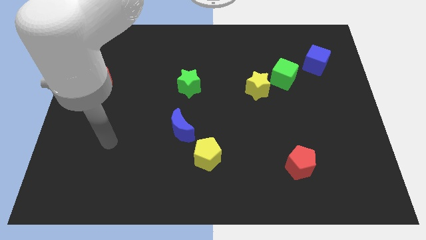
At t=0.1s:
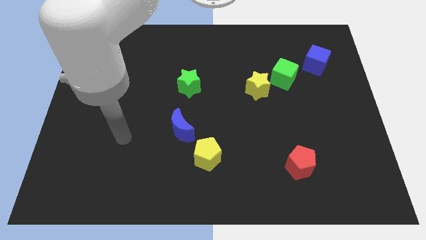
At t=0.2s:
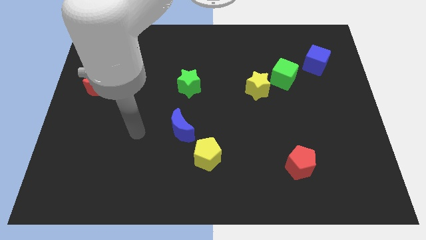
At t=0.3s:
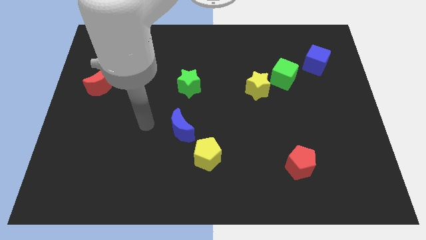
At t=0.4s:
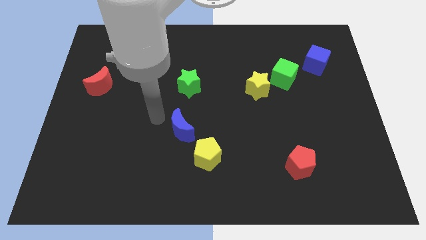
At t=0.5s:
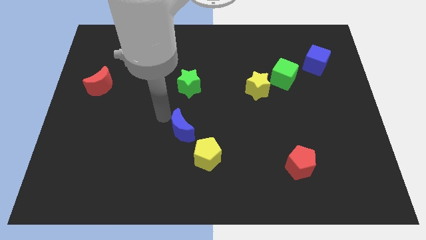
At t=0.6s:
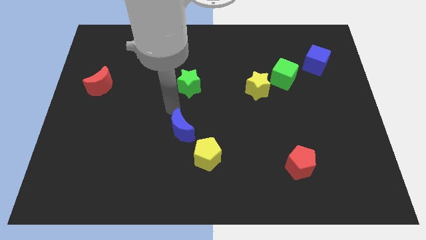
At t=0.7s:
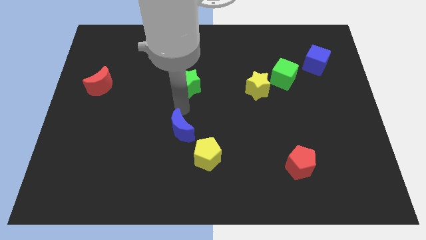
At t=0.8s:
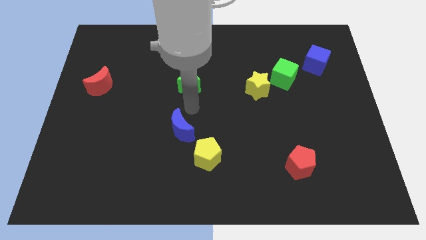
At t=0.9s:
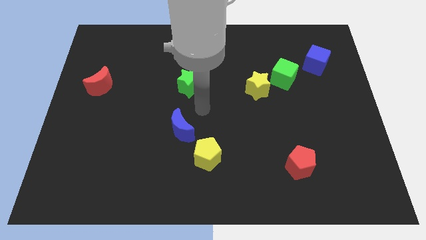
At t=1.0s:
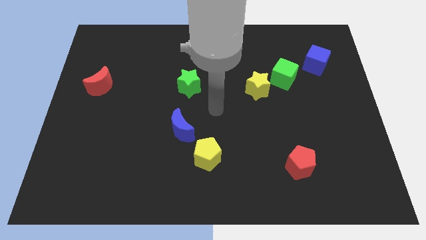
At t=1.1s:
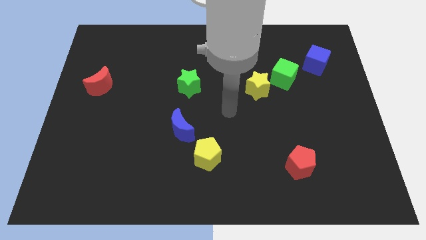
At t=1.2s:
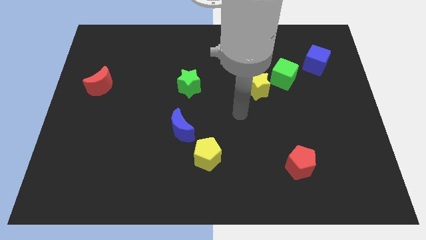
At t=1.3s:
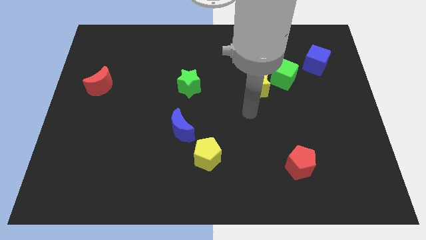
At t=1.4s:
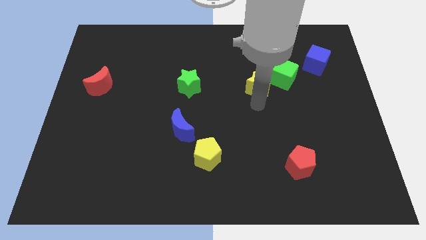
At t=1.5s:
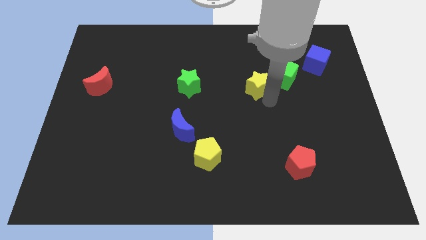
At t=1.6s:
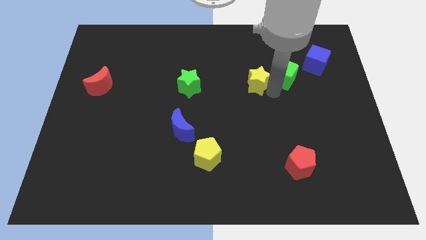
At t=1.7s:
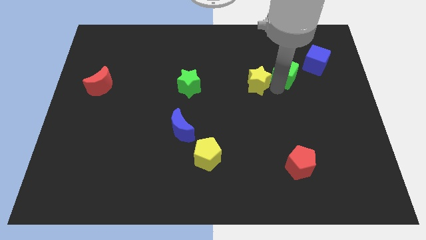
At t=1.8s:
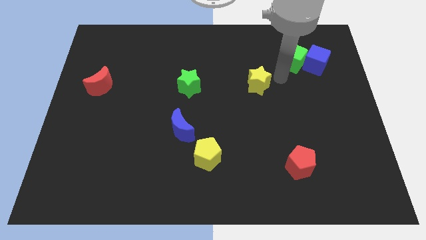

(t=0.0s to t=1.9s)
separate the yellow star from the green cube

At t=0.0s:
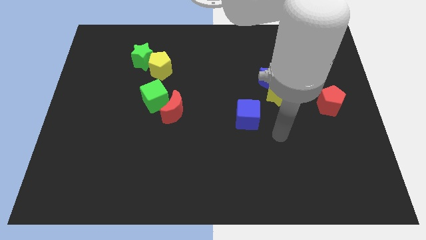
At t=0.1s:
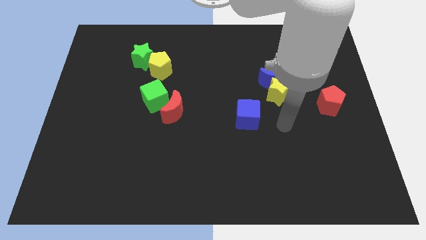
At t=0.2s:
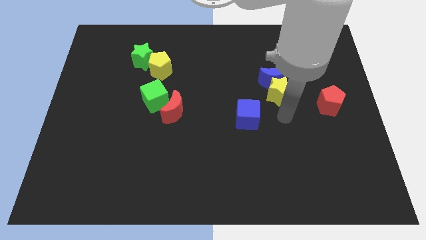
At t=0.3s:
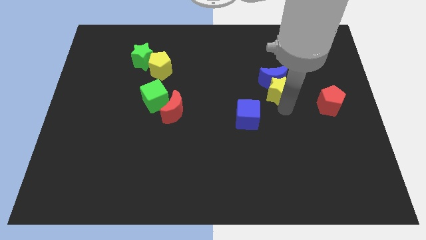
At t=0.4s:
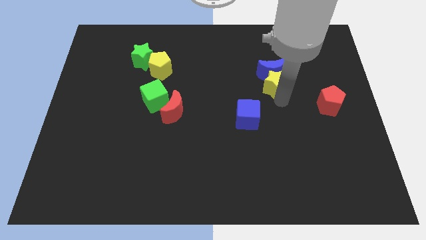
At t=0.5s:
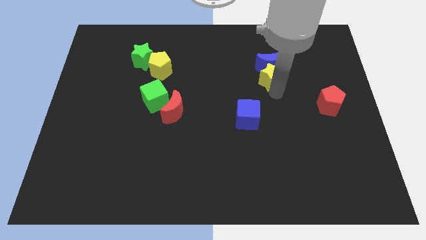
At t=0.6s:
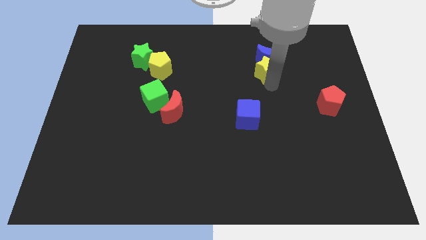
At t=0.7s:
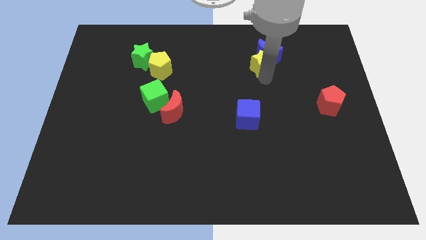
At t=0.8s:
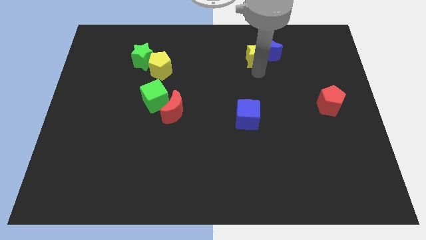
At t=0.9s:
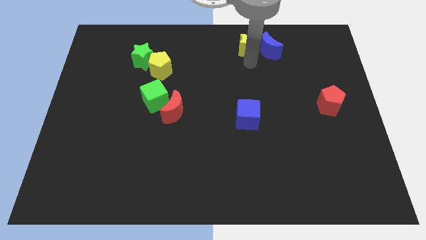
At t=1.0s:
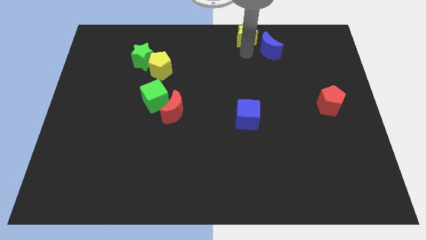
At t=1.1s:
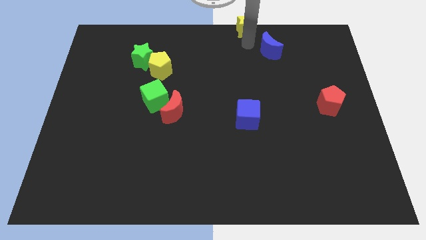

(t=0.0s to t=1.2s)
separate the blue moon from the yellow star

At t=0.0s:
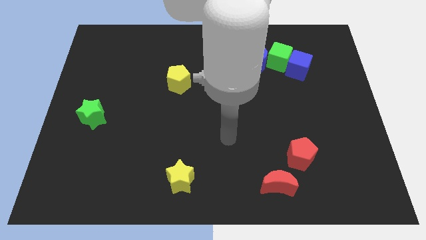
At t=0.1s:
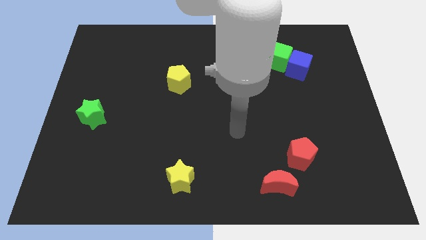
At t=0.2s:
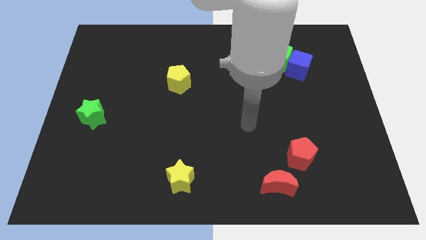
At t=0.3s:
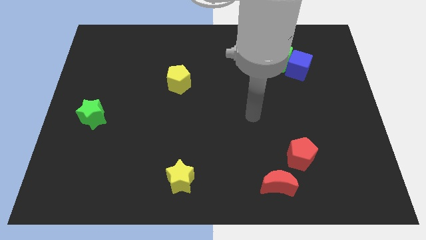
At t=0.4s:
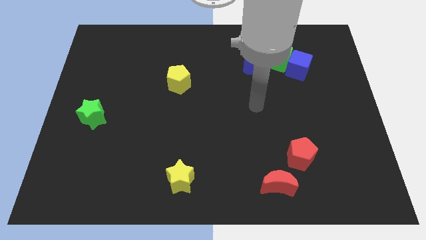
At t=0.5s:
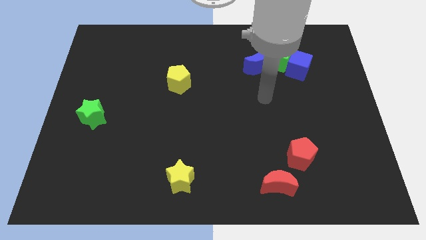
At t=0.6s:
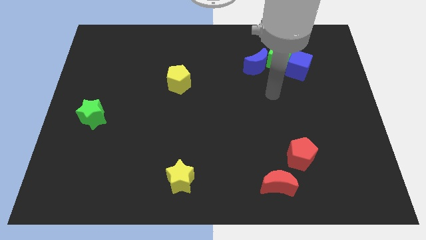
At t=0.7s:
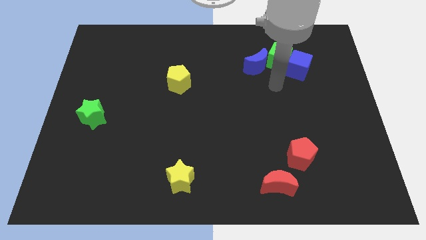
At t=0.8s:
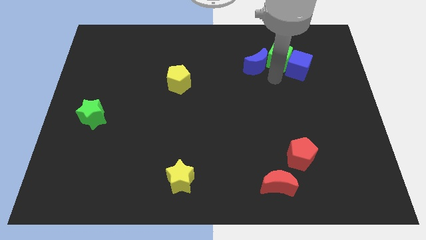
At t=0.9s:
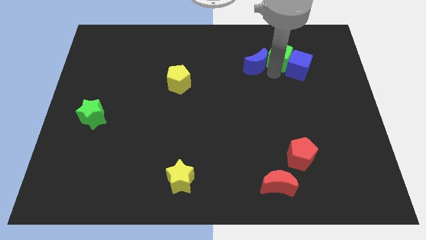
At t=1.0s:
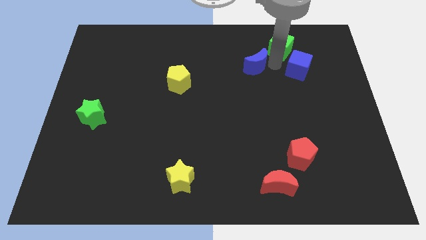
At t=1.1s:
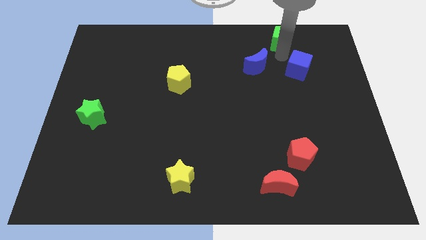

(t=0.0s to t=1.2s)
pull the blue cube apart from the green cube

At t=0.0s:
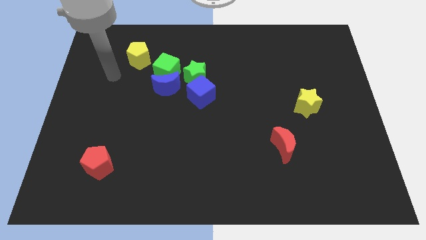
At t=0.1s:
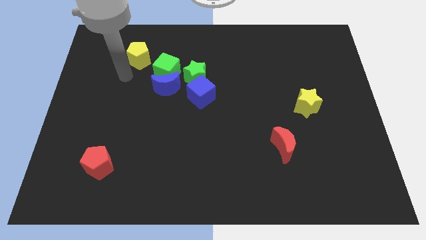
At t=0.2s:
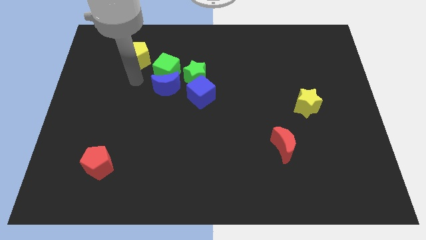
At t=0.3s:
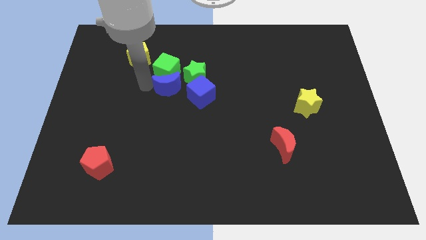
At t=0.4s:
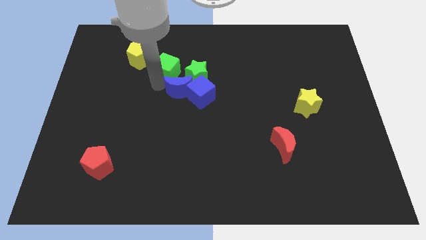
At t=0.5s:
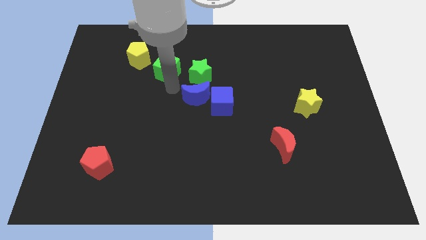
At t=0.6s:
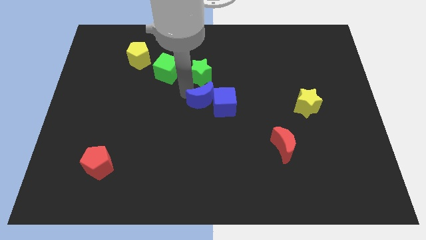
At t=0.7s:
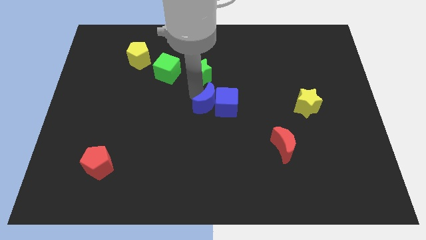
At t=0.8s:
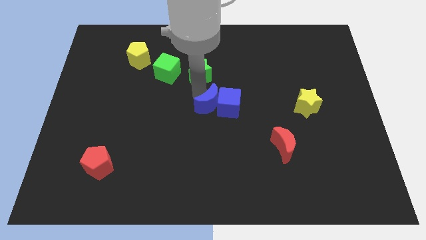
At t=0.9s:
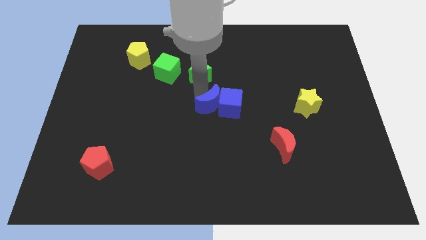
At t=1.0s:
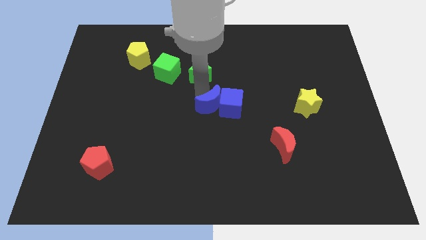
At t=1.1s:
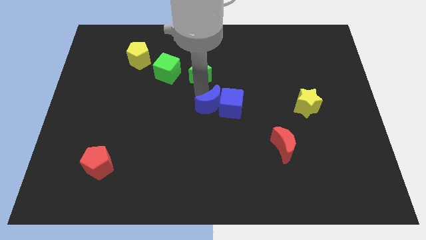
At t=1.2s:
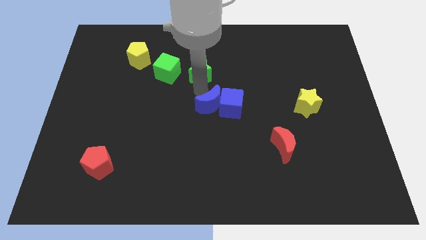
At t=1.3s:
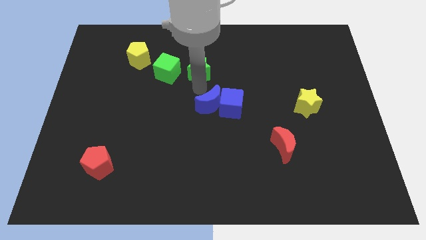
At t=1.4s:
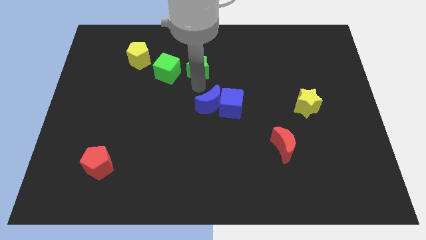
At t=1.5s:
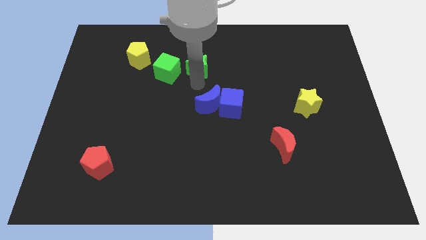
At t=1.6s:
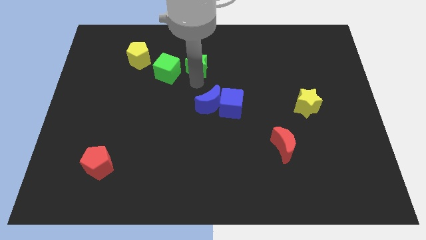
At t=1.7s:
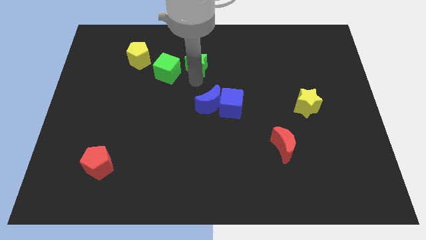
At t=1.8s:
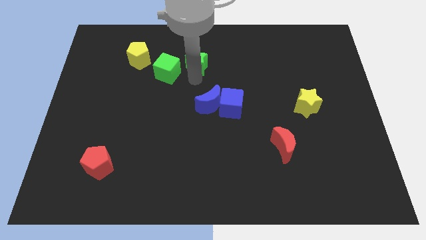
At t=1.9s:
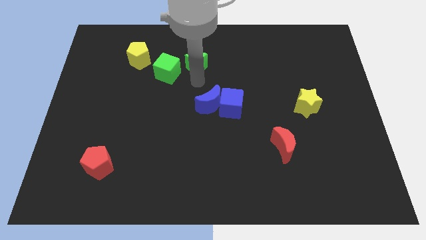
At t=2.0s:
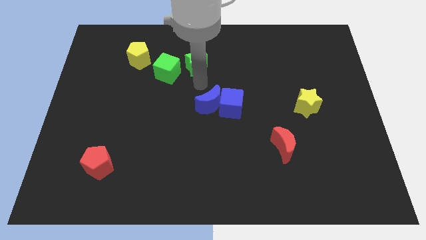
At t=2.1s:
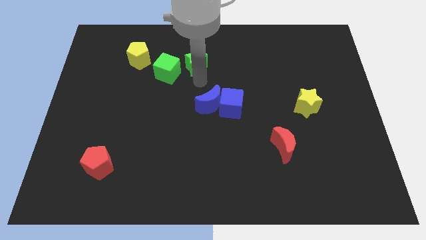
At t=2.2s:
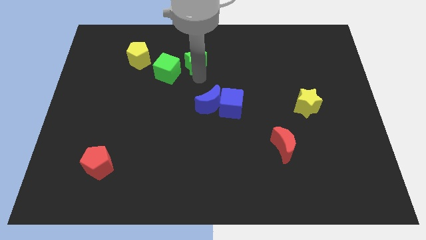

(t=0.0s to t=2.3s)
move the green star away from the group

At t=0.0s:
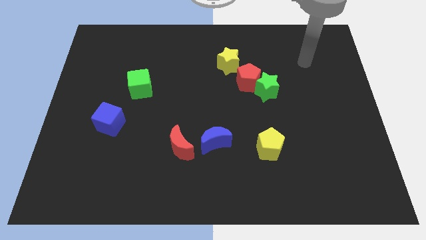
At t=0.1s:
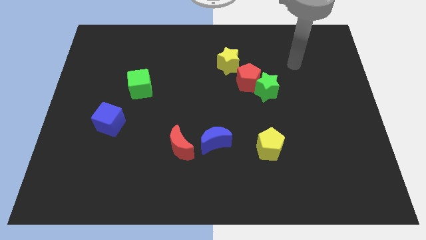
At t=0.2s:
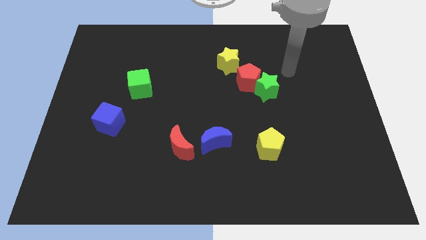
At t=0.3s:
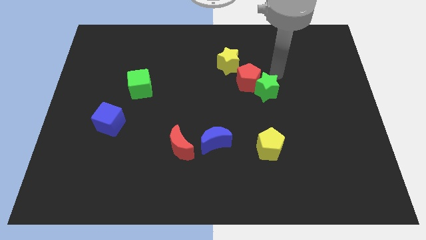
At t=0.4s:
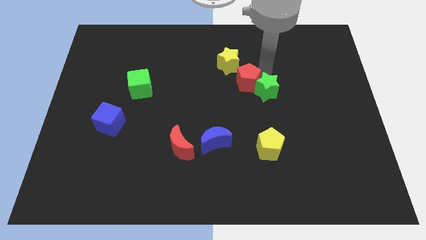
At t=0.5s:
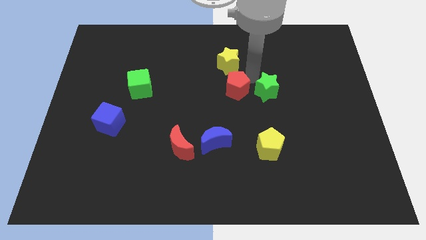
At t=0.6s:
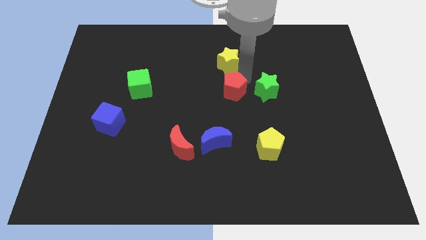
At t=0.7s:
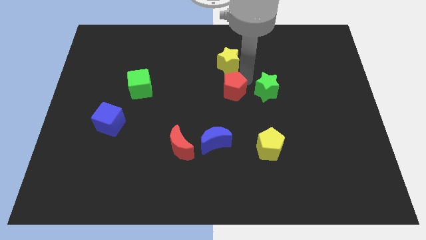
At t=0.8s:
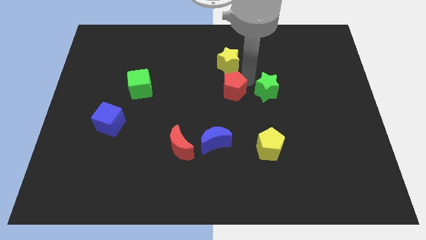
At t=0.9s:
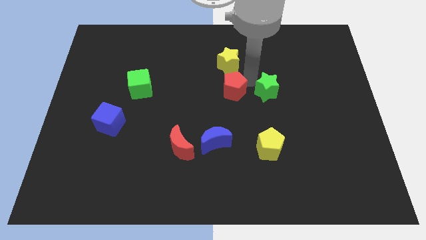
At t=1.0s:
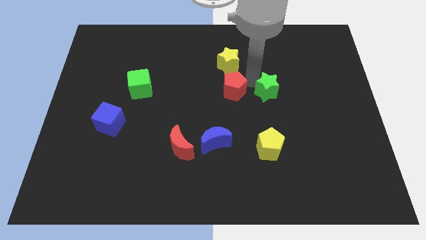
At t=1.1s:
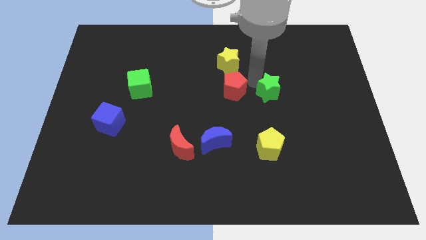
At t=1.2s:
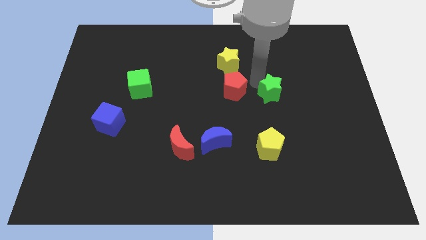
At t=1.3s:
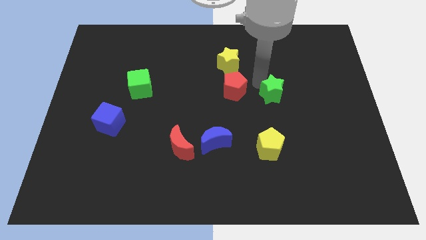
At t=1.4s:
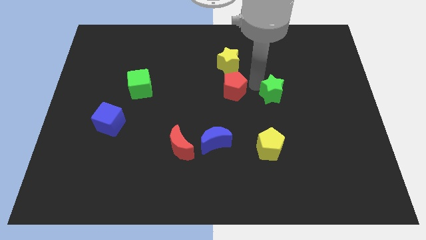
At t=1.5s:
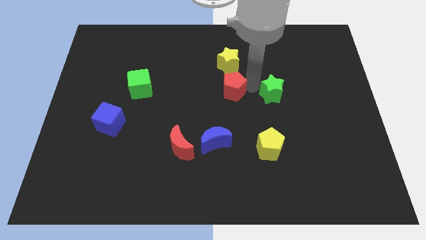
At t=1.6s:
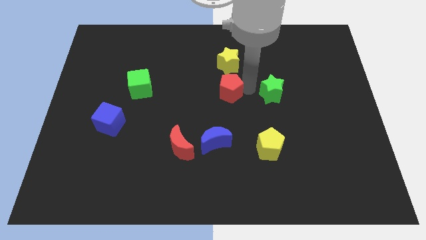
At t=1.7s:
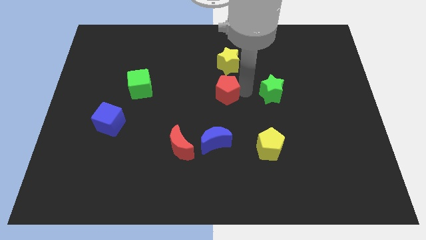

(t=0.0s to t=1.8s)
separate the green star from the red pentagon

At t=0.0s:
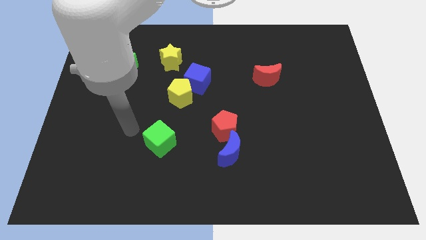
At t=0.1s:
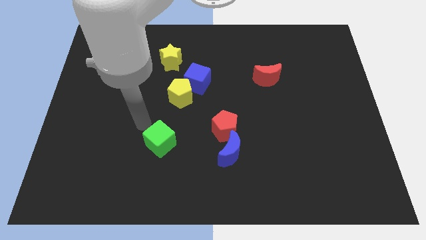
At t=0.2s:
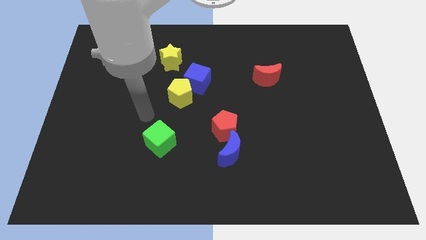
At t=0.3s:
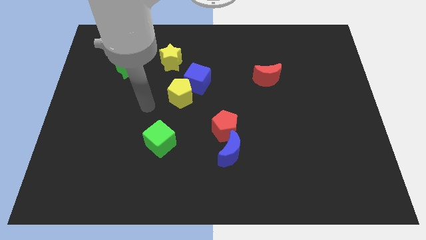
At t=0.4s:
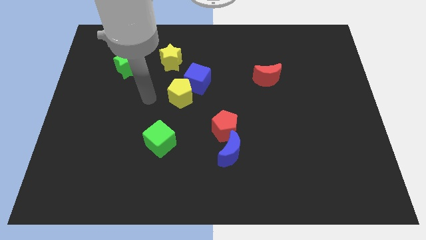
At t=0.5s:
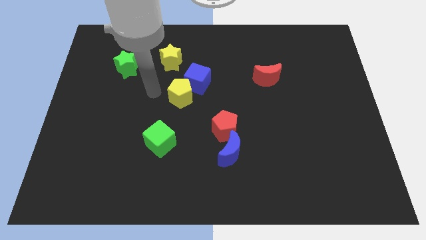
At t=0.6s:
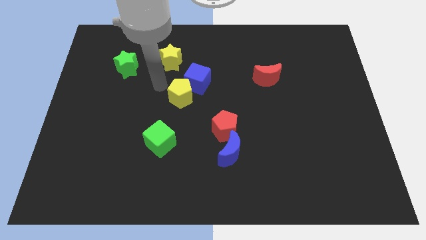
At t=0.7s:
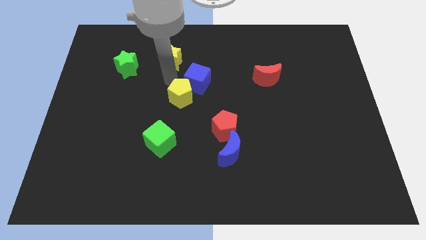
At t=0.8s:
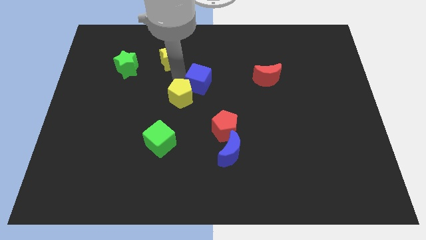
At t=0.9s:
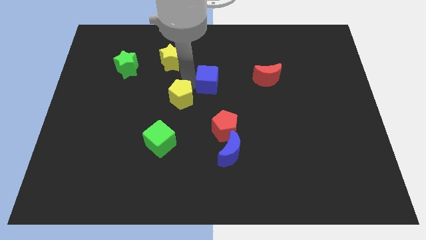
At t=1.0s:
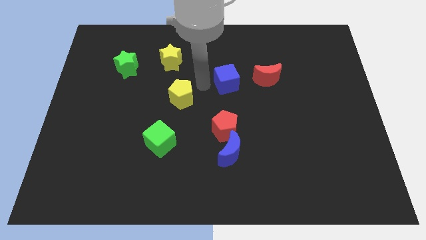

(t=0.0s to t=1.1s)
move the yellow pentagon away from the blue cube
